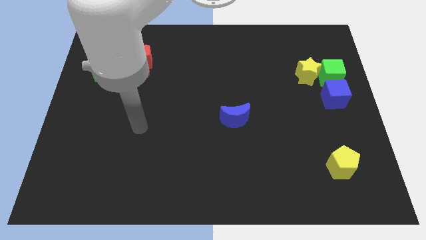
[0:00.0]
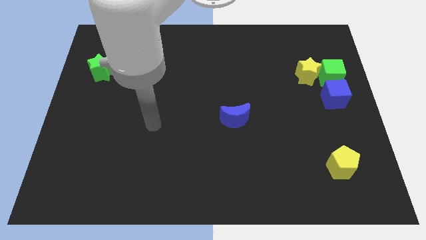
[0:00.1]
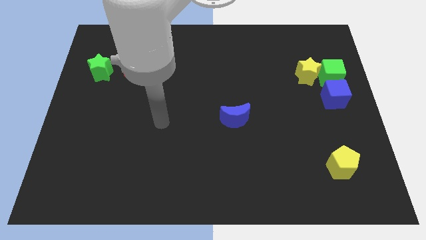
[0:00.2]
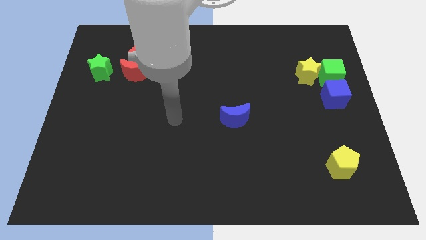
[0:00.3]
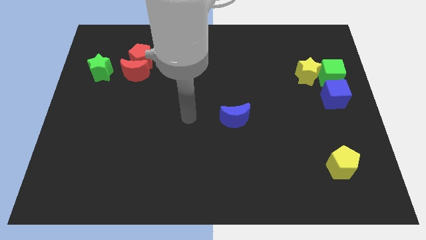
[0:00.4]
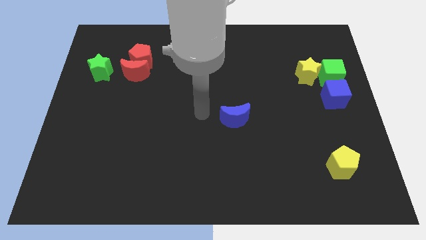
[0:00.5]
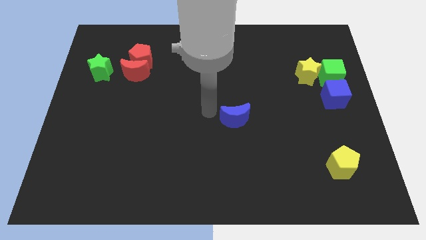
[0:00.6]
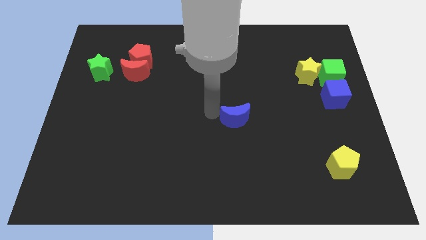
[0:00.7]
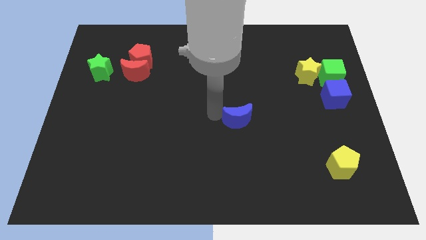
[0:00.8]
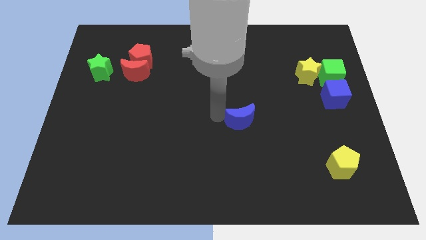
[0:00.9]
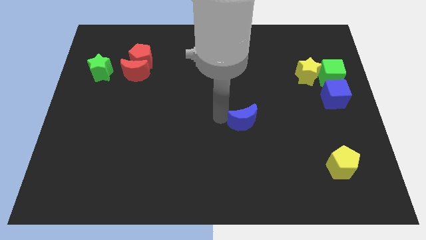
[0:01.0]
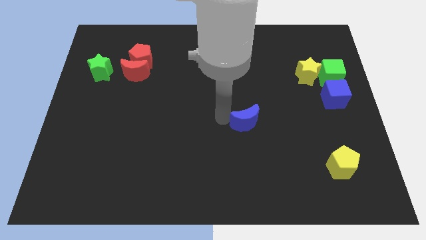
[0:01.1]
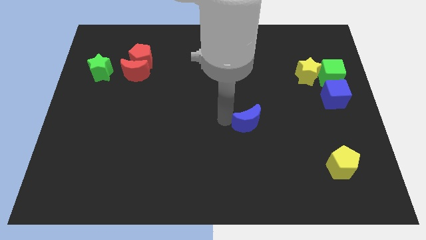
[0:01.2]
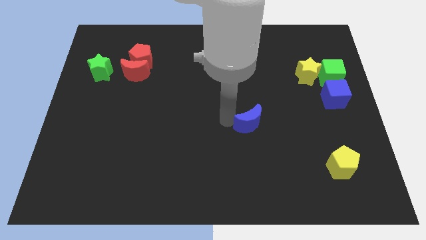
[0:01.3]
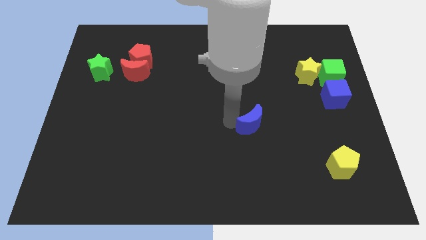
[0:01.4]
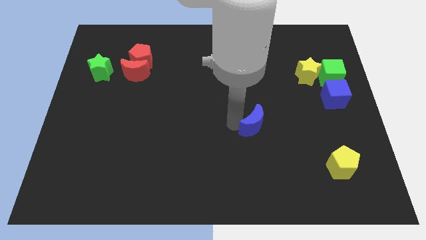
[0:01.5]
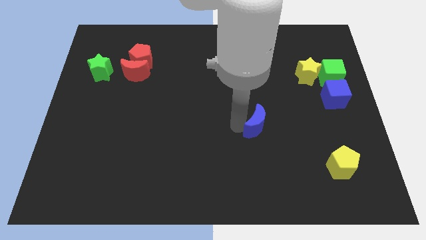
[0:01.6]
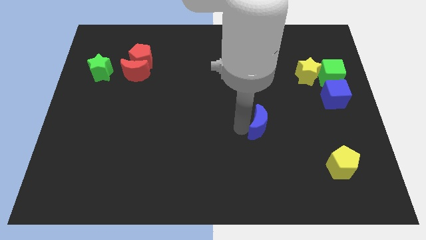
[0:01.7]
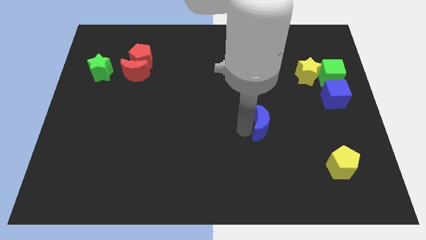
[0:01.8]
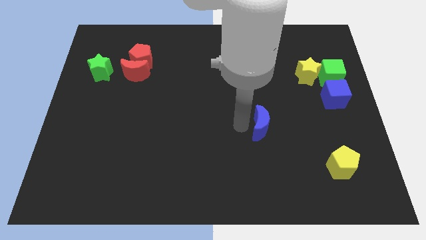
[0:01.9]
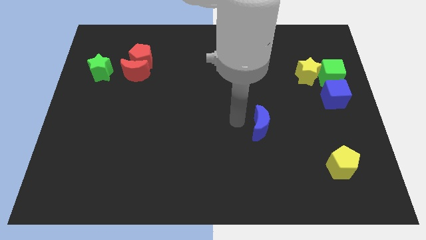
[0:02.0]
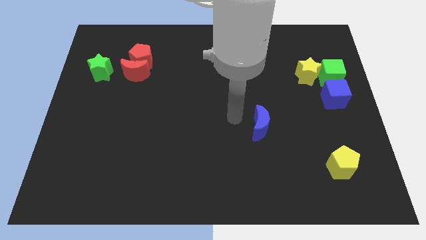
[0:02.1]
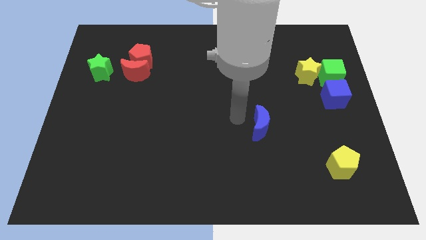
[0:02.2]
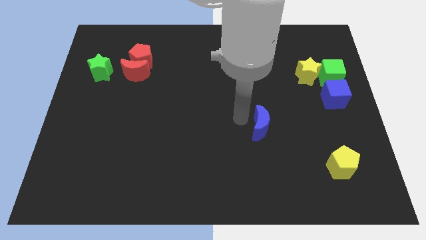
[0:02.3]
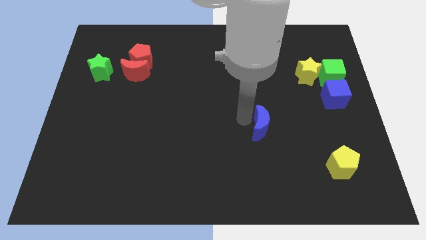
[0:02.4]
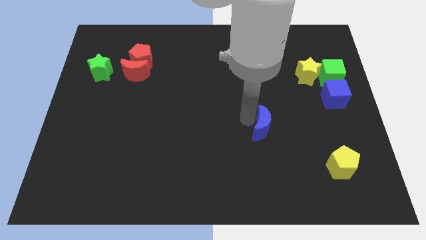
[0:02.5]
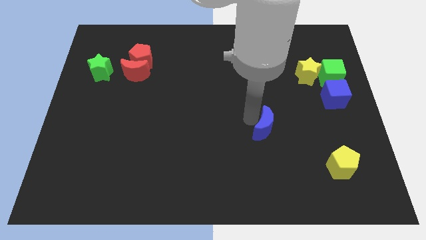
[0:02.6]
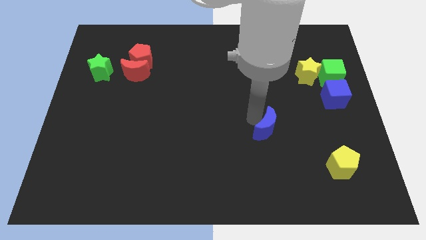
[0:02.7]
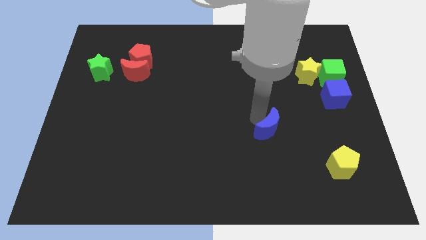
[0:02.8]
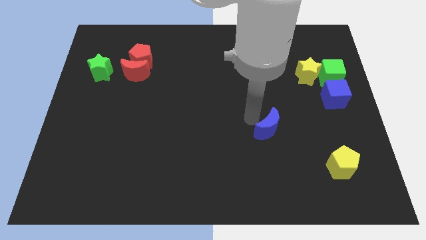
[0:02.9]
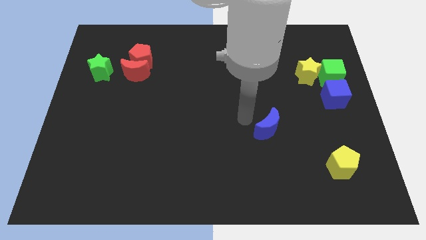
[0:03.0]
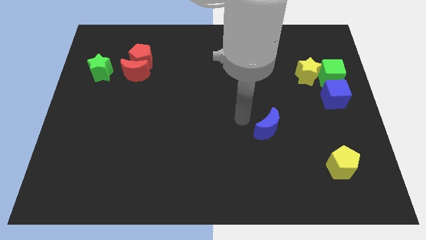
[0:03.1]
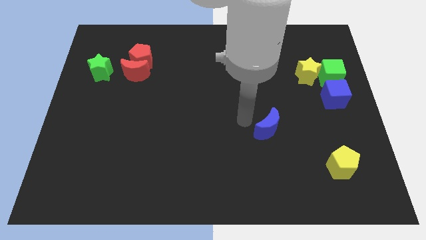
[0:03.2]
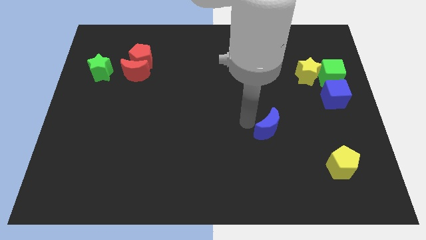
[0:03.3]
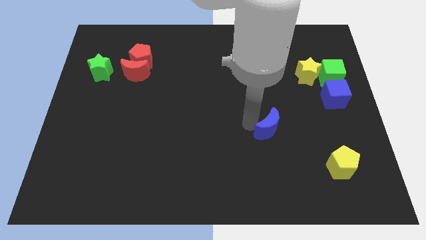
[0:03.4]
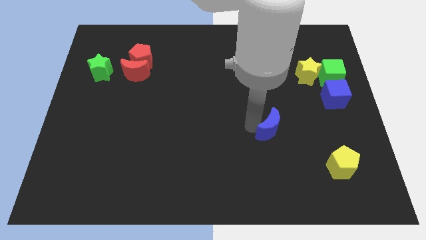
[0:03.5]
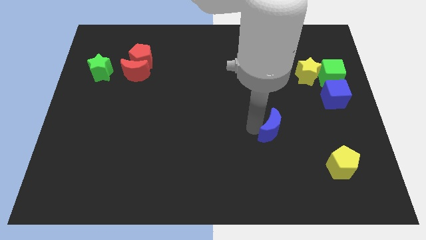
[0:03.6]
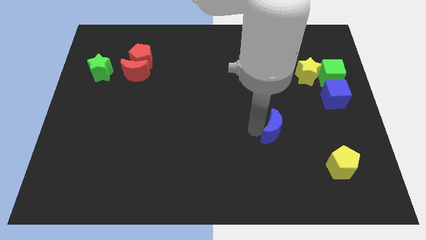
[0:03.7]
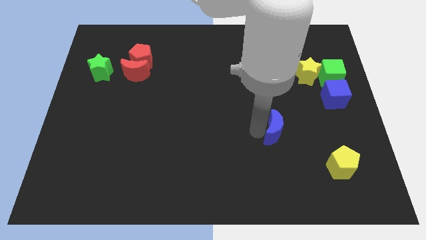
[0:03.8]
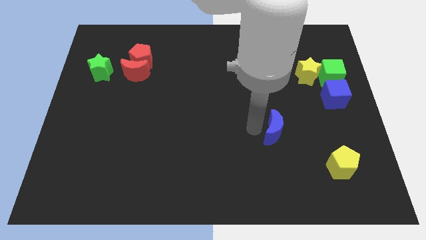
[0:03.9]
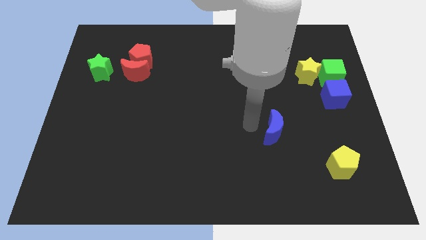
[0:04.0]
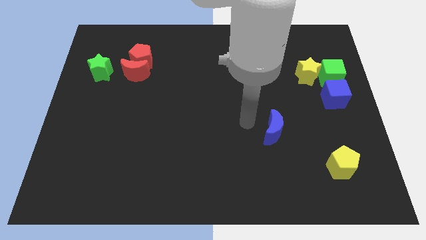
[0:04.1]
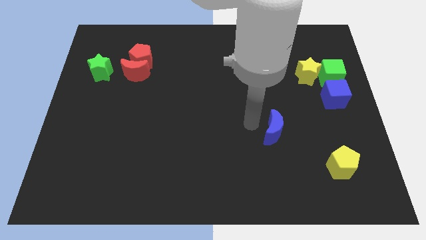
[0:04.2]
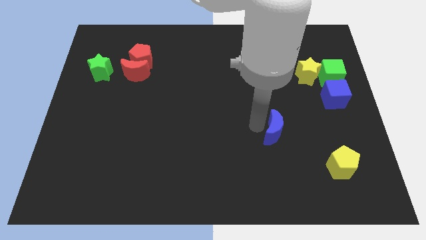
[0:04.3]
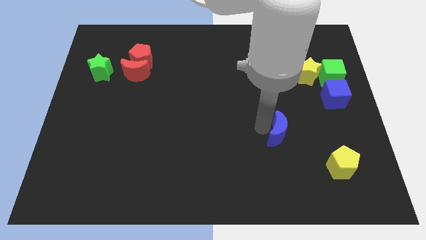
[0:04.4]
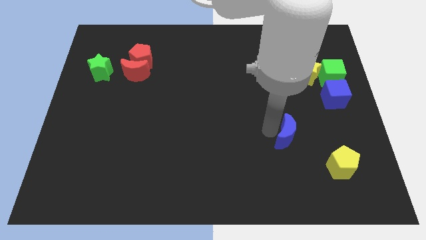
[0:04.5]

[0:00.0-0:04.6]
move the blue moon to the top left side of the yellow pentagon

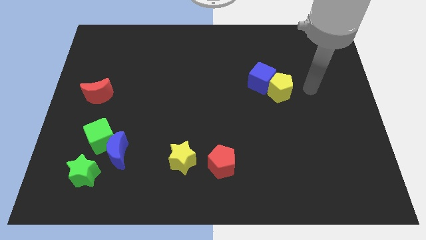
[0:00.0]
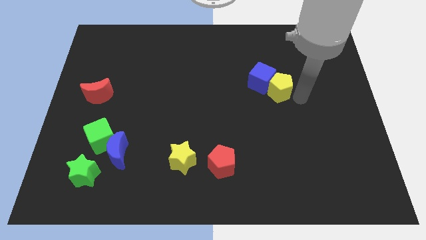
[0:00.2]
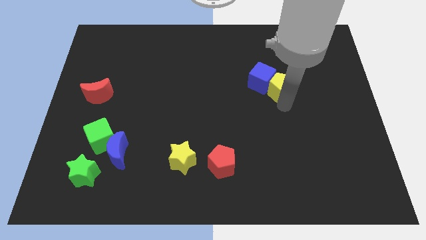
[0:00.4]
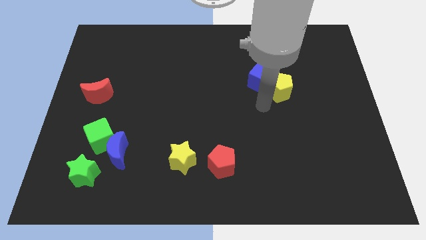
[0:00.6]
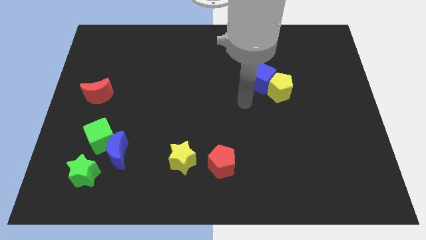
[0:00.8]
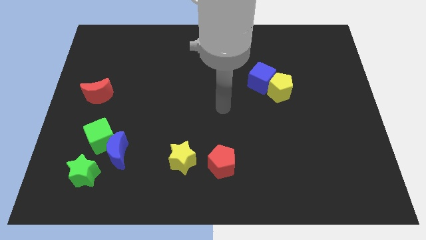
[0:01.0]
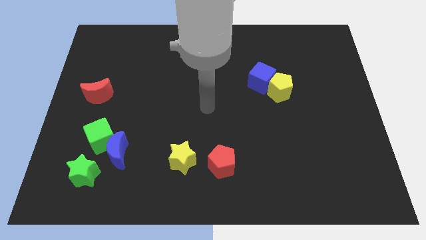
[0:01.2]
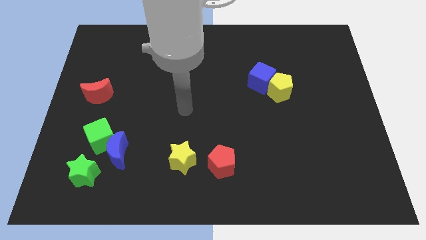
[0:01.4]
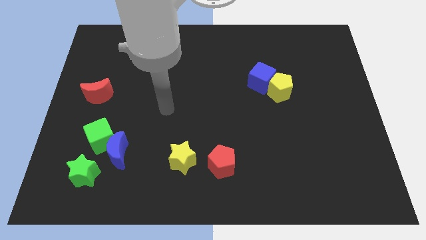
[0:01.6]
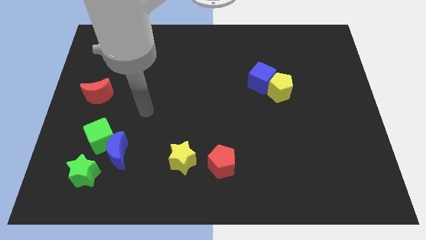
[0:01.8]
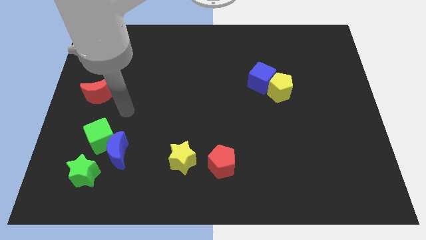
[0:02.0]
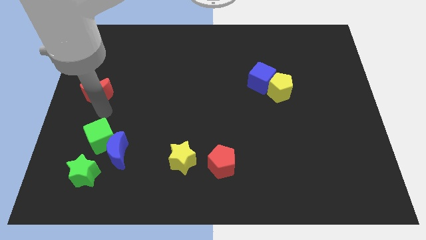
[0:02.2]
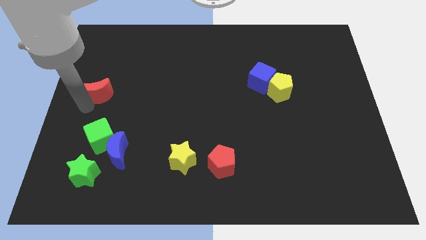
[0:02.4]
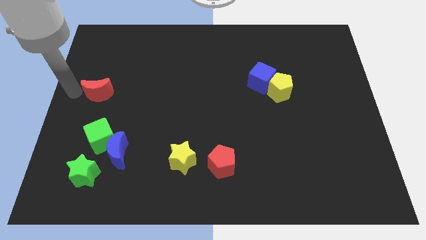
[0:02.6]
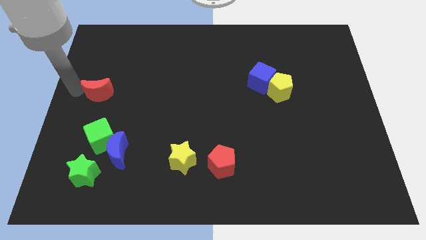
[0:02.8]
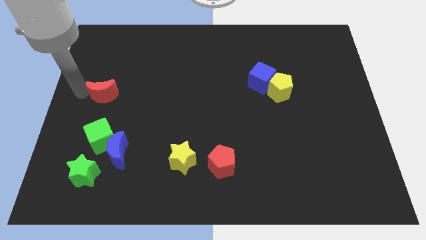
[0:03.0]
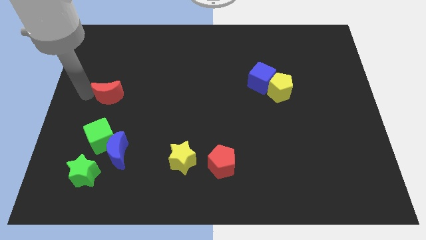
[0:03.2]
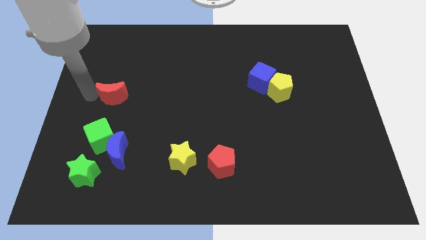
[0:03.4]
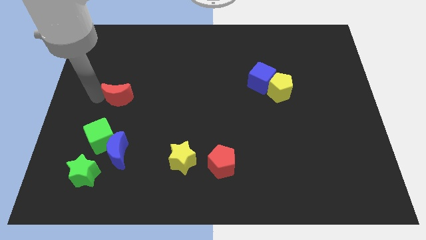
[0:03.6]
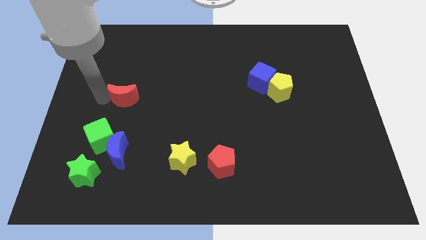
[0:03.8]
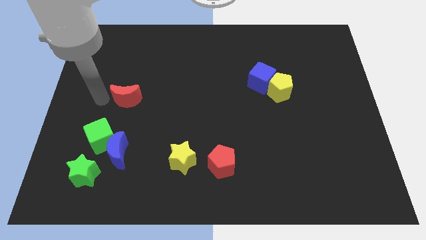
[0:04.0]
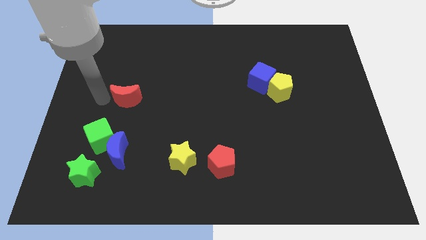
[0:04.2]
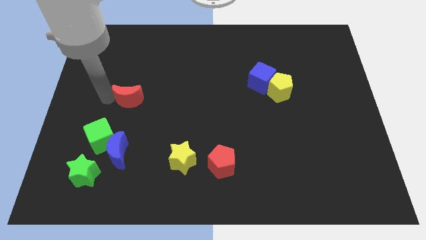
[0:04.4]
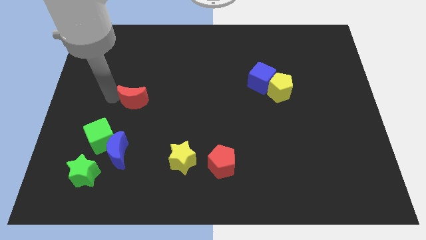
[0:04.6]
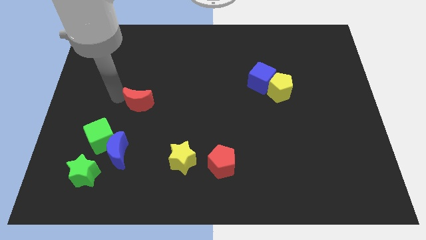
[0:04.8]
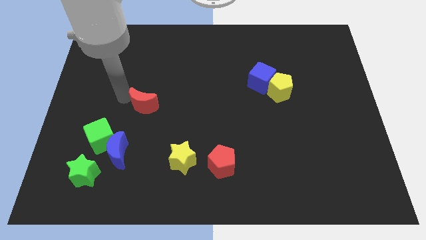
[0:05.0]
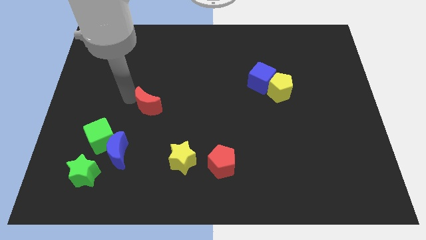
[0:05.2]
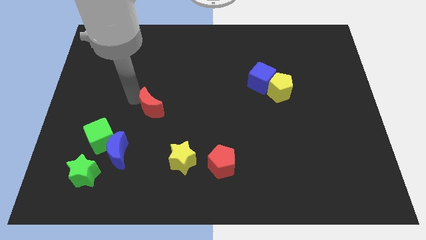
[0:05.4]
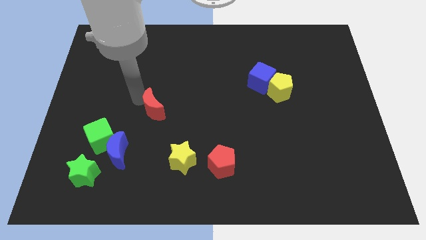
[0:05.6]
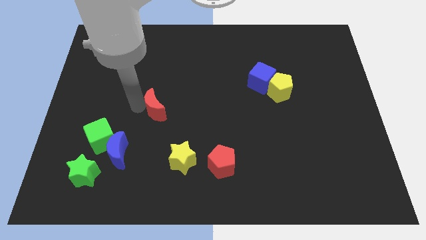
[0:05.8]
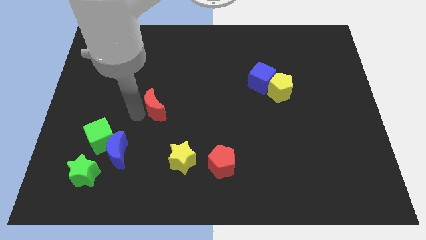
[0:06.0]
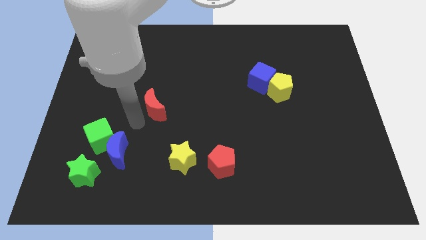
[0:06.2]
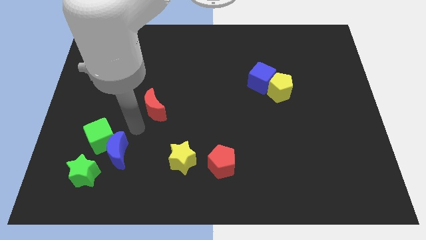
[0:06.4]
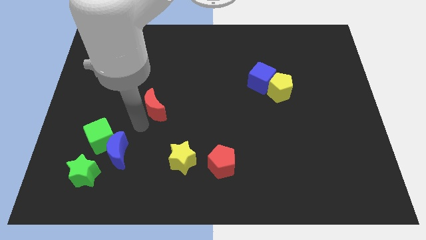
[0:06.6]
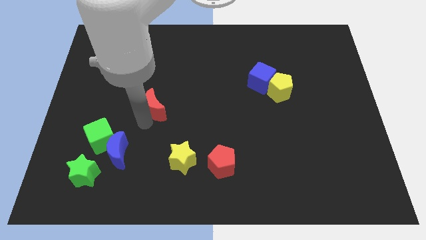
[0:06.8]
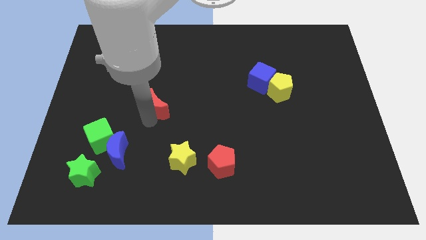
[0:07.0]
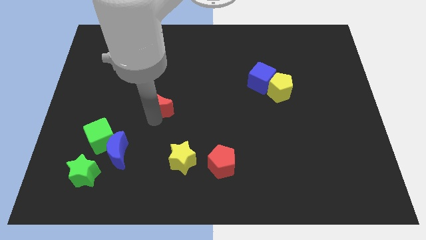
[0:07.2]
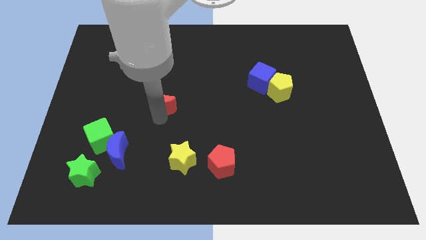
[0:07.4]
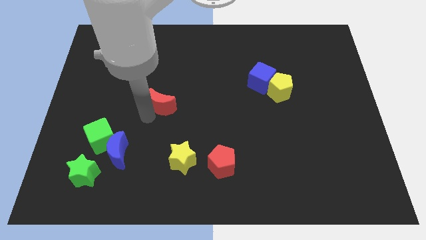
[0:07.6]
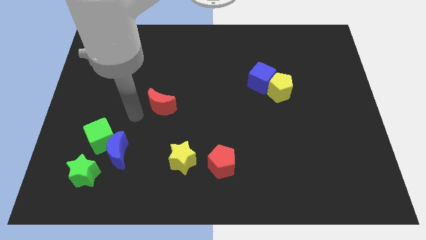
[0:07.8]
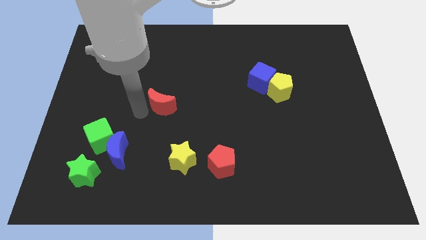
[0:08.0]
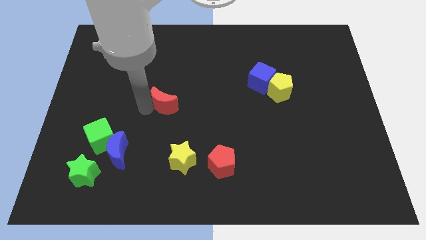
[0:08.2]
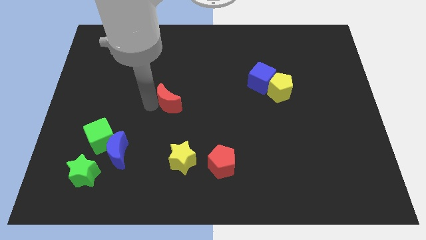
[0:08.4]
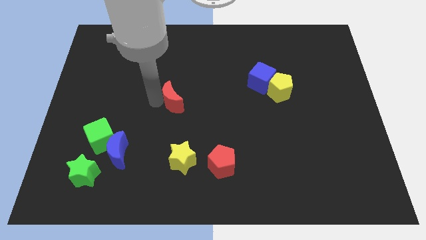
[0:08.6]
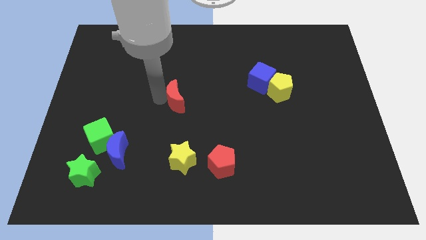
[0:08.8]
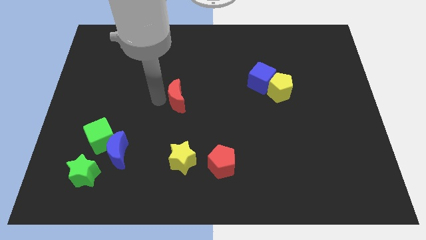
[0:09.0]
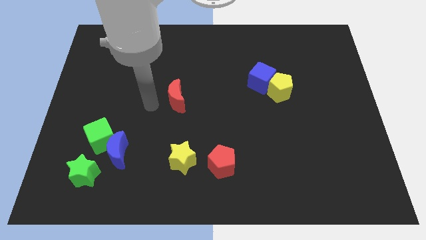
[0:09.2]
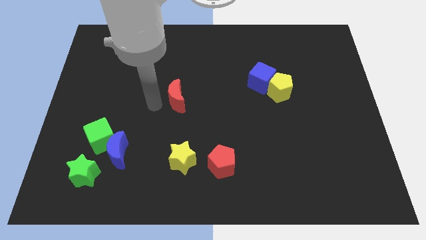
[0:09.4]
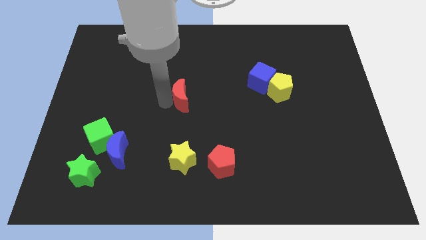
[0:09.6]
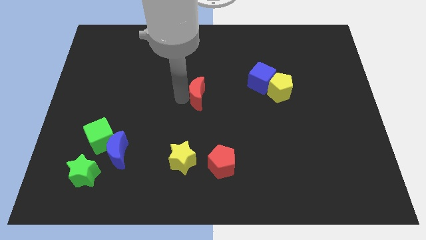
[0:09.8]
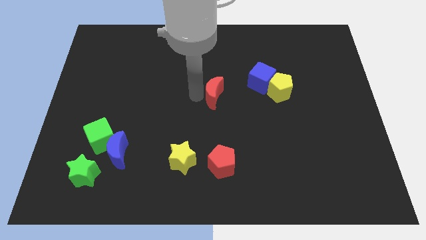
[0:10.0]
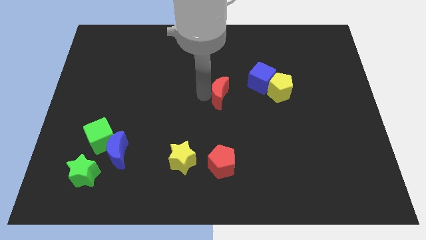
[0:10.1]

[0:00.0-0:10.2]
move the red moon to the bottom left side of the blue cube
